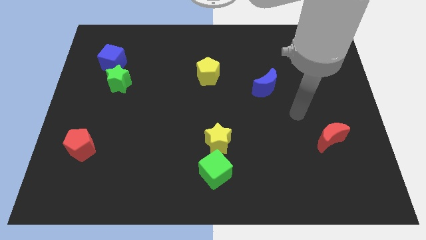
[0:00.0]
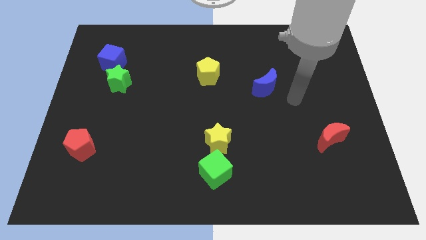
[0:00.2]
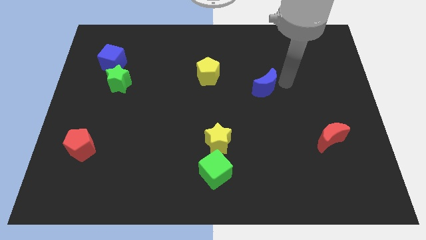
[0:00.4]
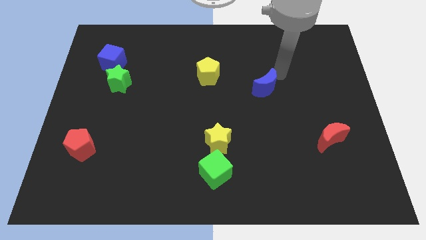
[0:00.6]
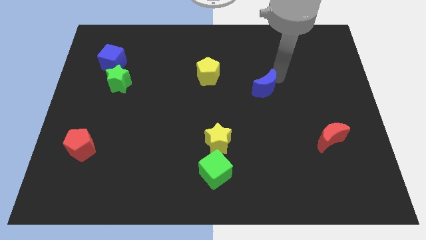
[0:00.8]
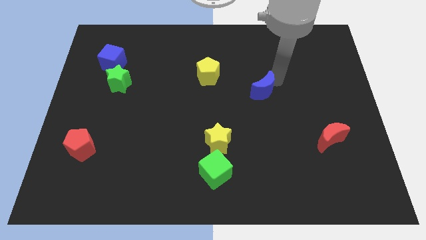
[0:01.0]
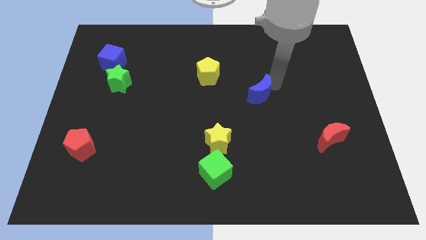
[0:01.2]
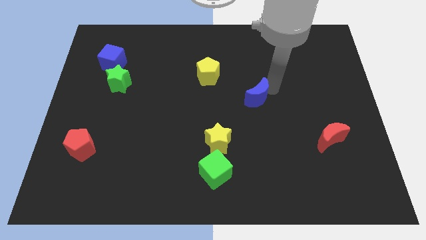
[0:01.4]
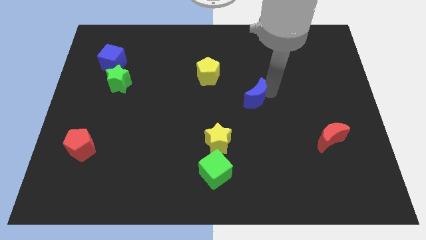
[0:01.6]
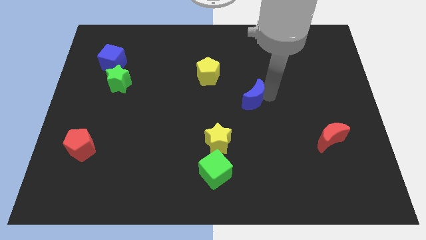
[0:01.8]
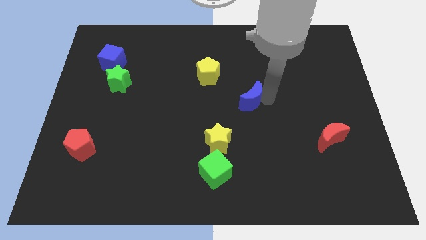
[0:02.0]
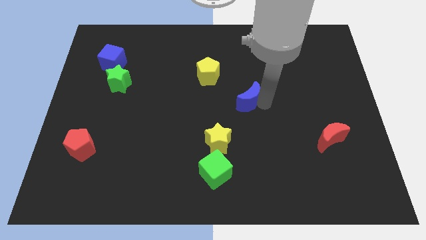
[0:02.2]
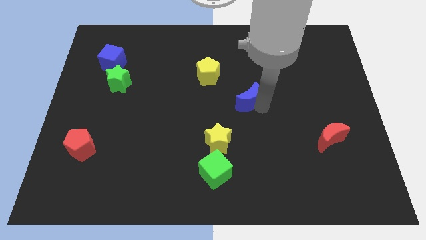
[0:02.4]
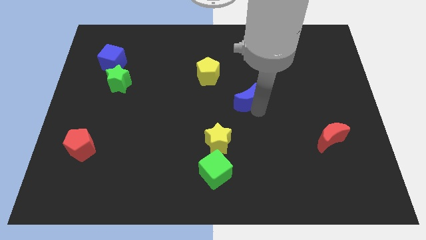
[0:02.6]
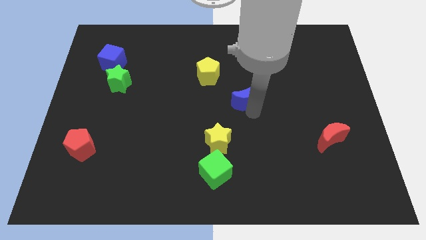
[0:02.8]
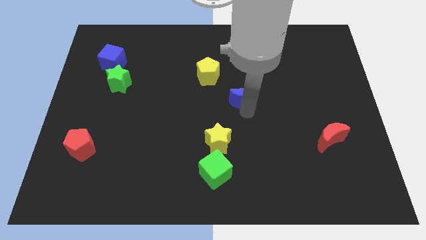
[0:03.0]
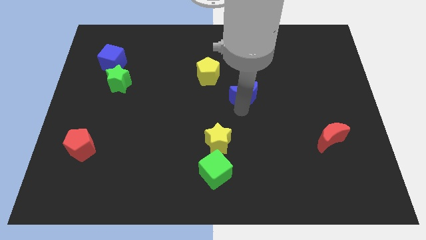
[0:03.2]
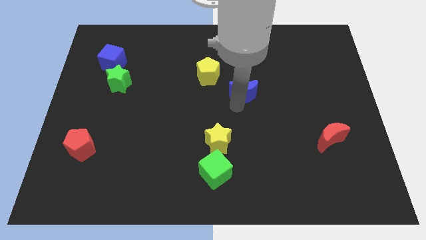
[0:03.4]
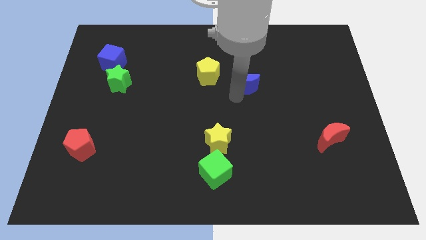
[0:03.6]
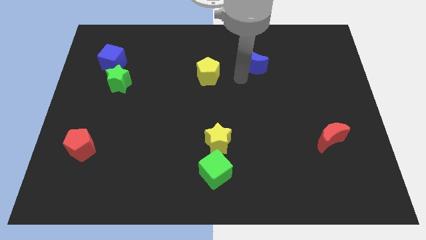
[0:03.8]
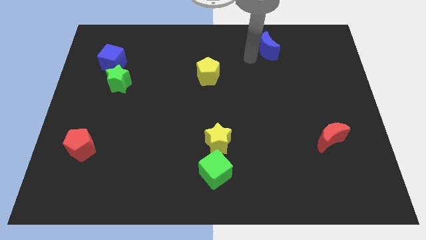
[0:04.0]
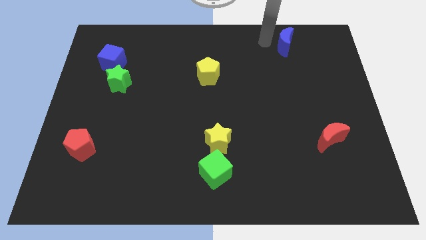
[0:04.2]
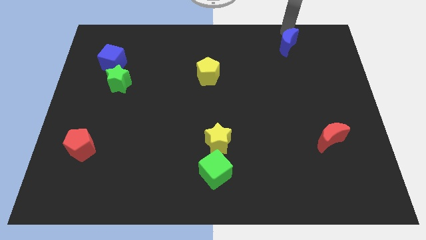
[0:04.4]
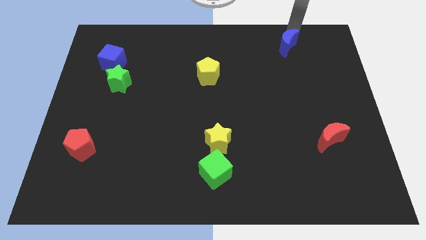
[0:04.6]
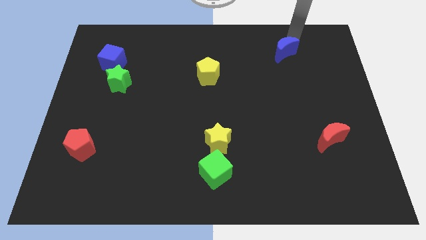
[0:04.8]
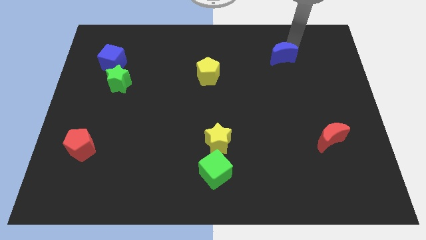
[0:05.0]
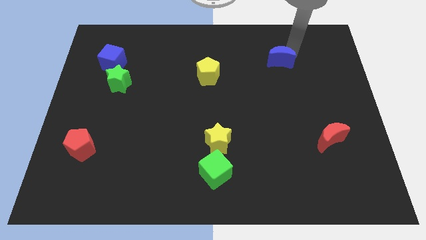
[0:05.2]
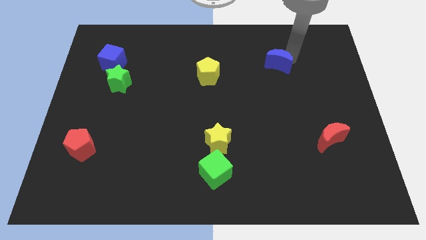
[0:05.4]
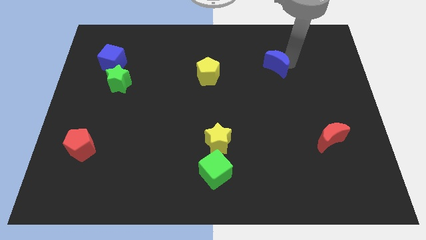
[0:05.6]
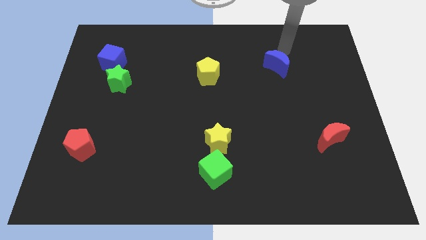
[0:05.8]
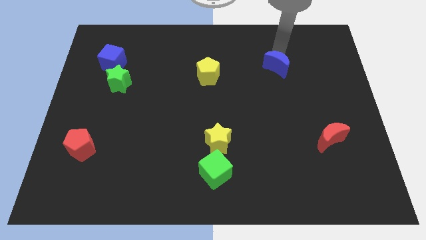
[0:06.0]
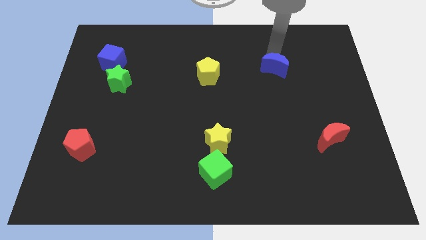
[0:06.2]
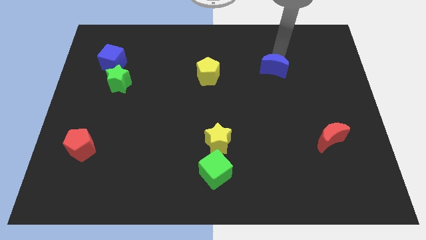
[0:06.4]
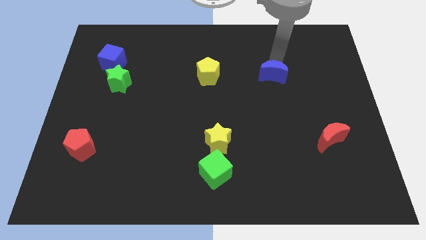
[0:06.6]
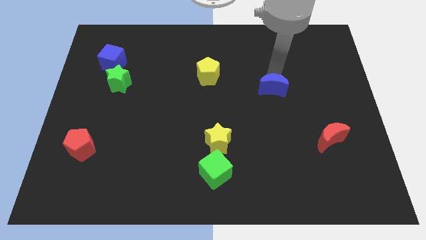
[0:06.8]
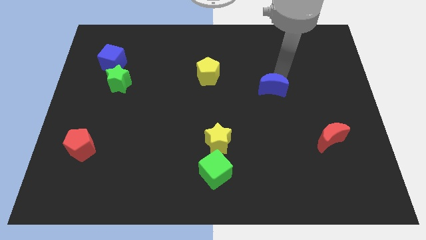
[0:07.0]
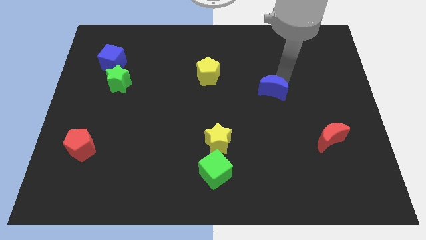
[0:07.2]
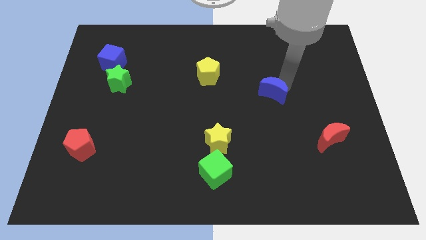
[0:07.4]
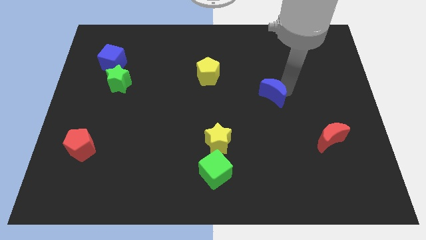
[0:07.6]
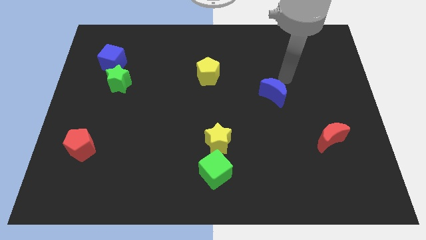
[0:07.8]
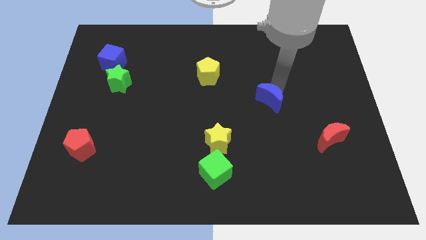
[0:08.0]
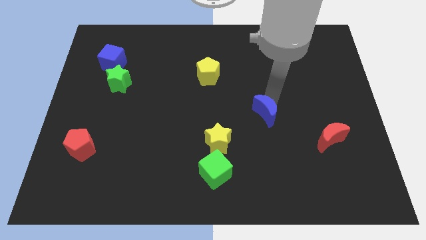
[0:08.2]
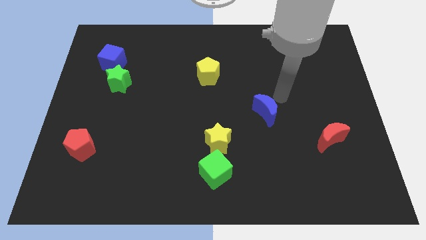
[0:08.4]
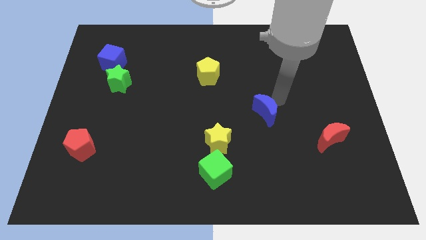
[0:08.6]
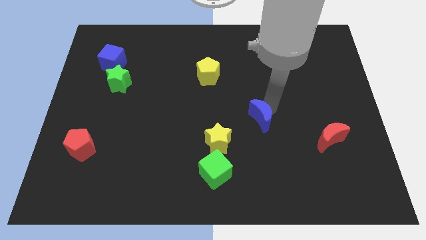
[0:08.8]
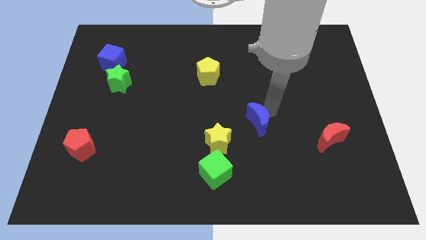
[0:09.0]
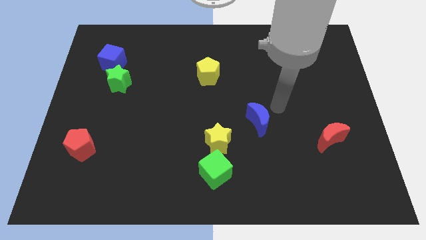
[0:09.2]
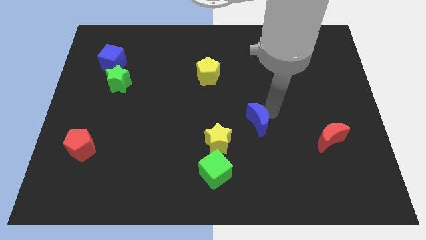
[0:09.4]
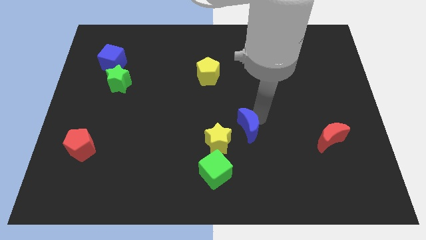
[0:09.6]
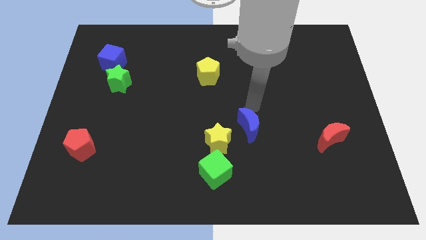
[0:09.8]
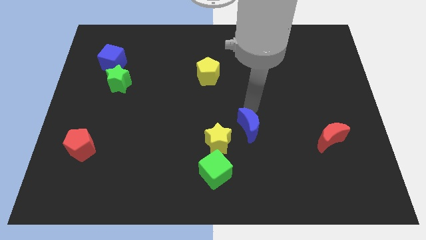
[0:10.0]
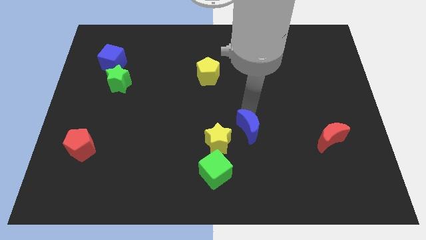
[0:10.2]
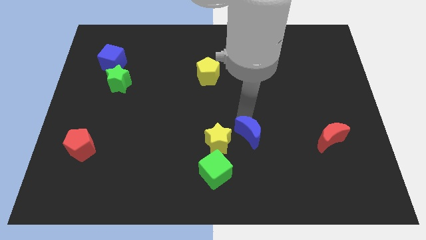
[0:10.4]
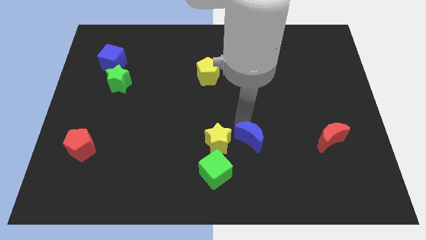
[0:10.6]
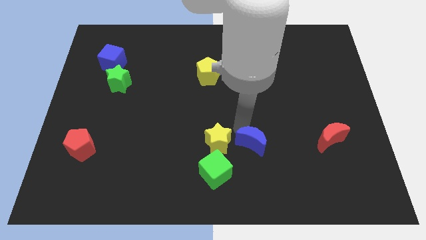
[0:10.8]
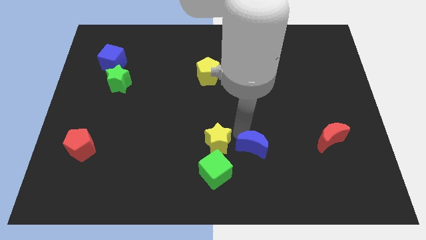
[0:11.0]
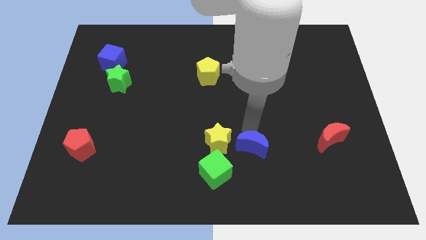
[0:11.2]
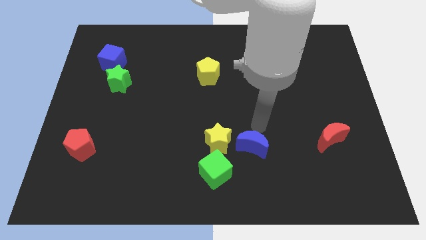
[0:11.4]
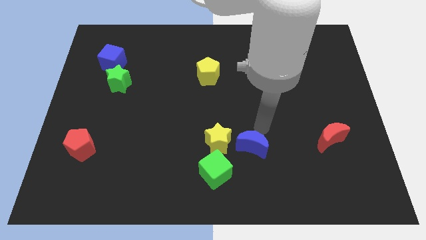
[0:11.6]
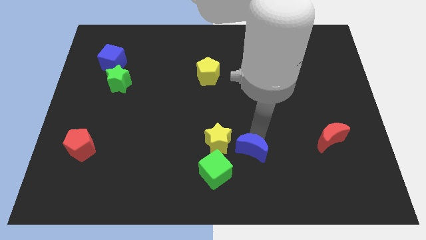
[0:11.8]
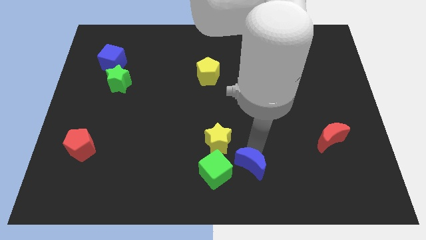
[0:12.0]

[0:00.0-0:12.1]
slide the blue moon to the bottom

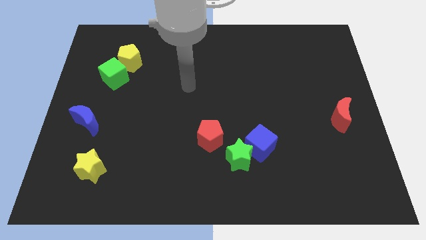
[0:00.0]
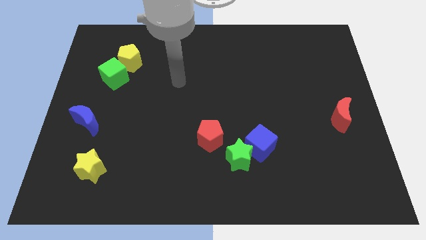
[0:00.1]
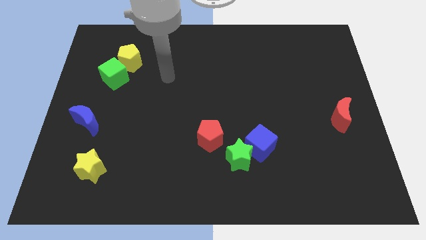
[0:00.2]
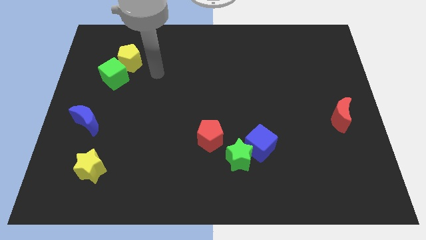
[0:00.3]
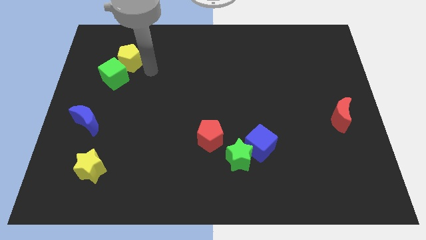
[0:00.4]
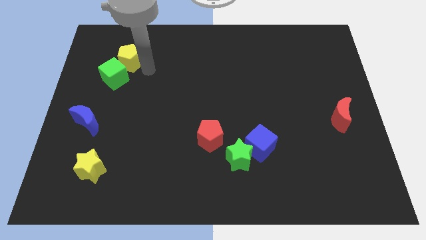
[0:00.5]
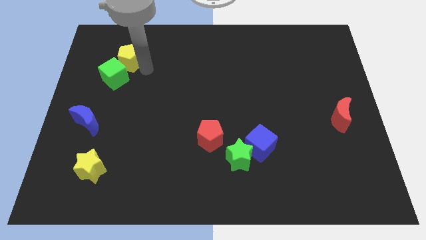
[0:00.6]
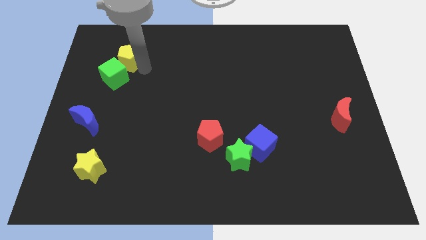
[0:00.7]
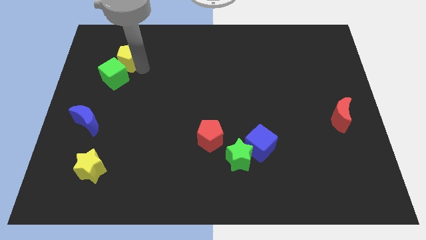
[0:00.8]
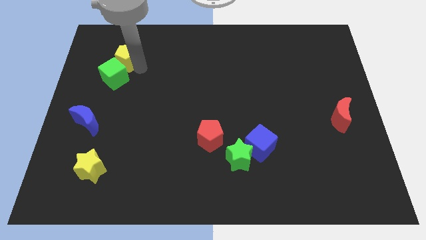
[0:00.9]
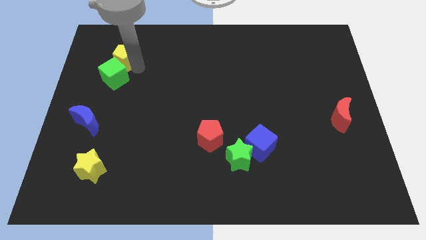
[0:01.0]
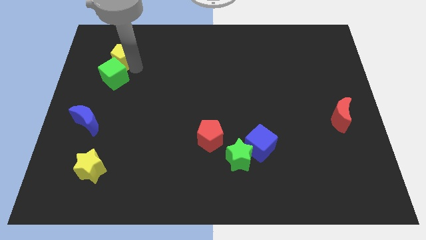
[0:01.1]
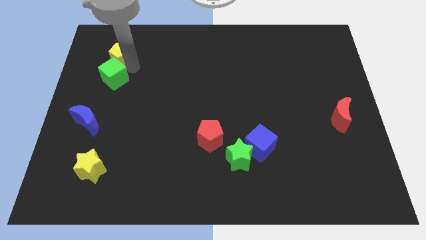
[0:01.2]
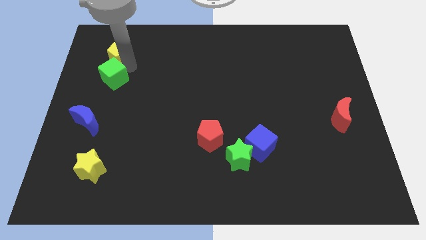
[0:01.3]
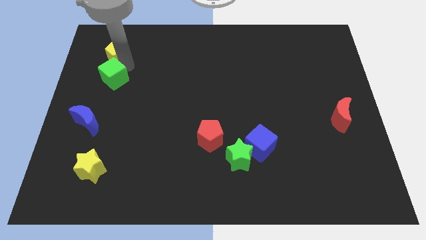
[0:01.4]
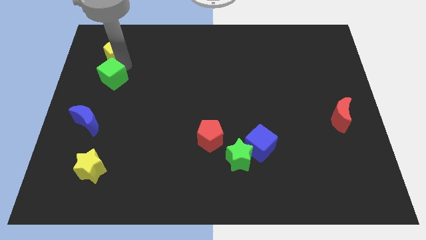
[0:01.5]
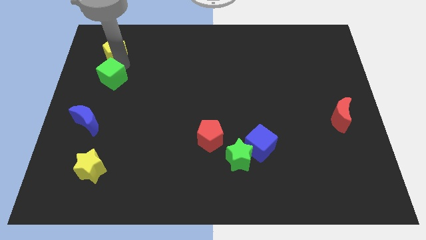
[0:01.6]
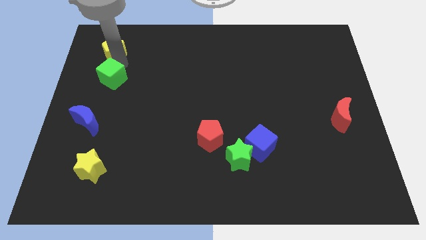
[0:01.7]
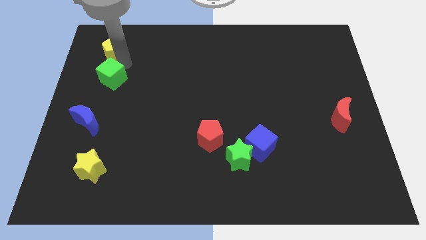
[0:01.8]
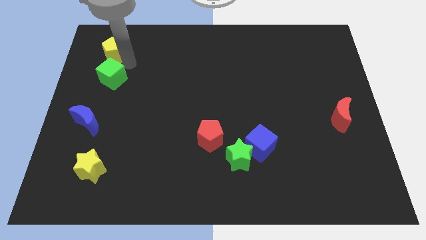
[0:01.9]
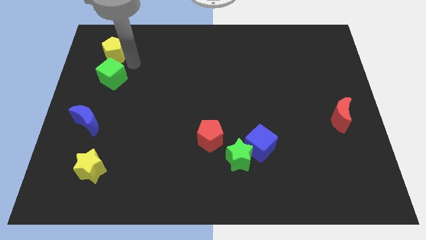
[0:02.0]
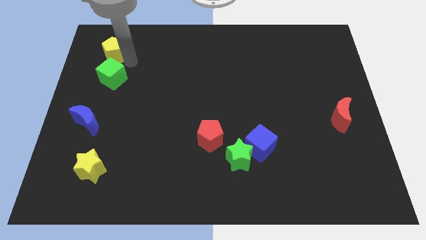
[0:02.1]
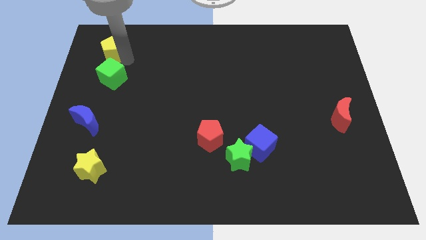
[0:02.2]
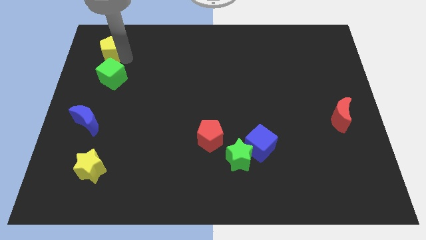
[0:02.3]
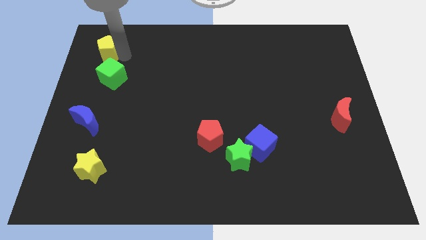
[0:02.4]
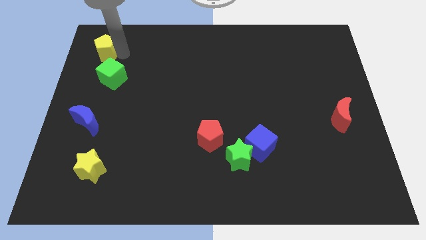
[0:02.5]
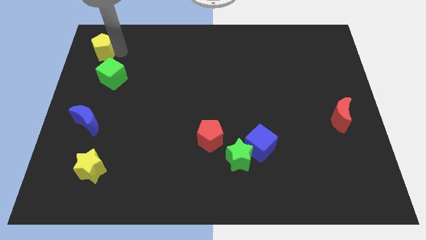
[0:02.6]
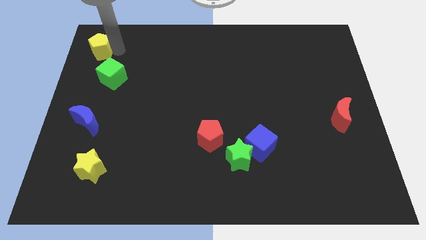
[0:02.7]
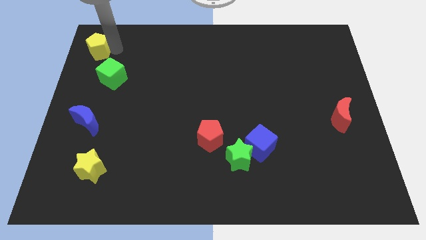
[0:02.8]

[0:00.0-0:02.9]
slide the yellow pentagon to the upper left corner
